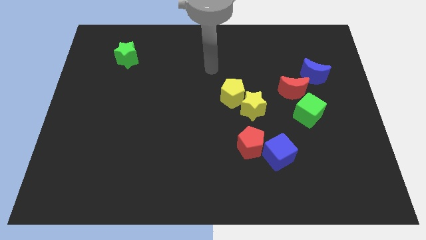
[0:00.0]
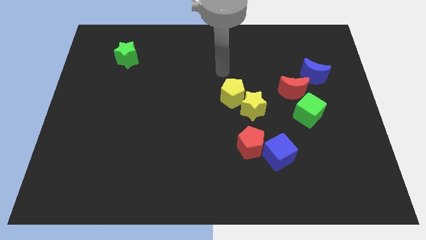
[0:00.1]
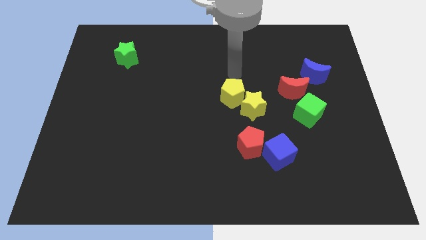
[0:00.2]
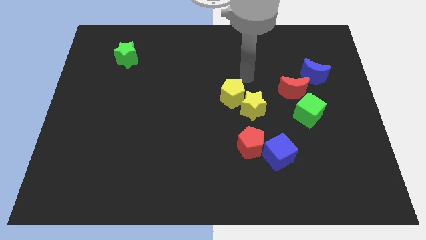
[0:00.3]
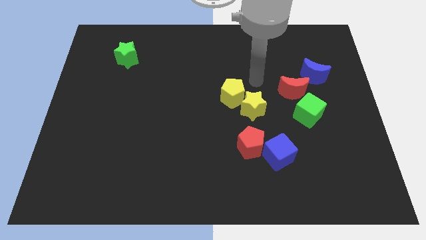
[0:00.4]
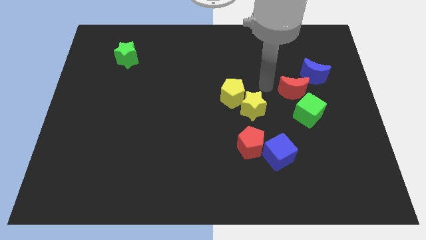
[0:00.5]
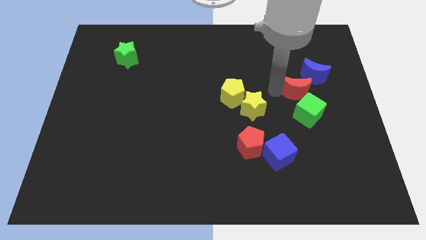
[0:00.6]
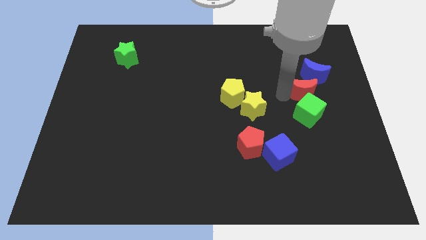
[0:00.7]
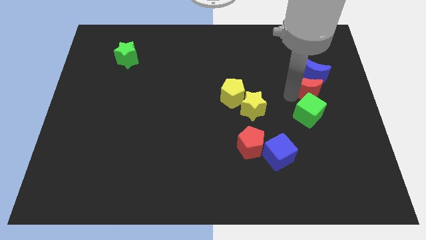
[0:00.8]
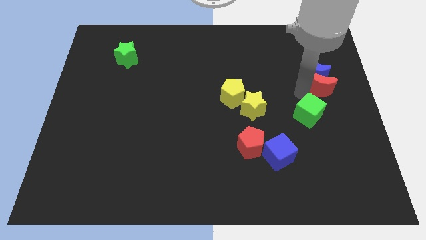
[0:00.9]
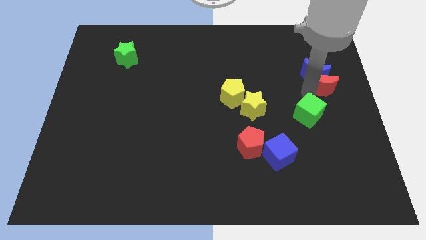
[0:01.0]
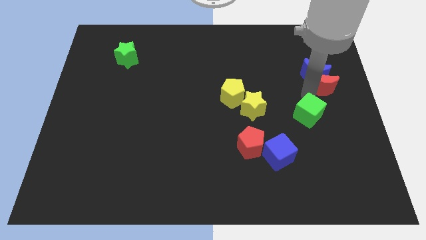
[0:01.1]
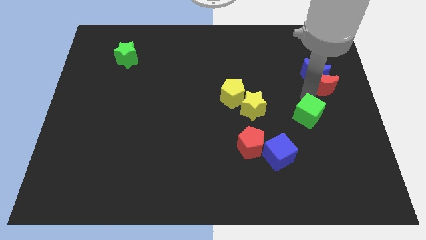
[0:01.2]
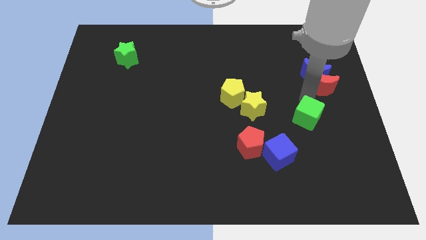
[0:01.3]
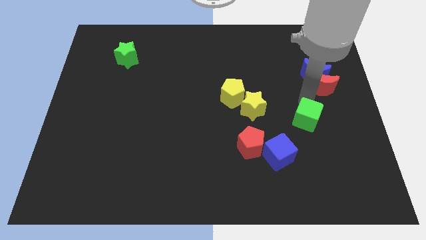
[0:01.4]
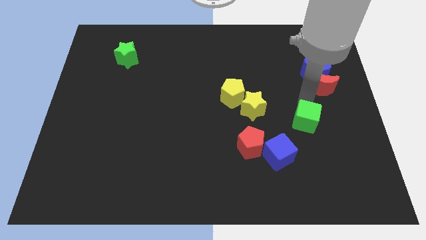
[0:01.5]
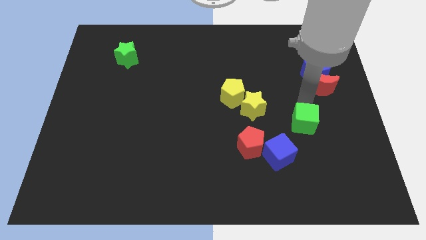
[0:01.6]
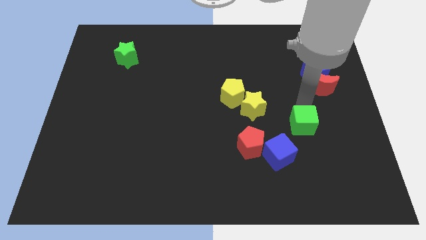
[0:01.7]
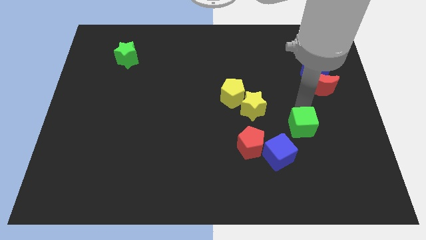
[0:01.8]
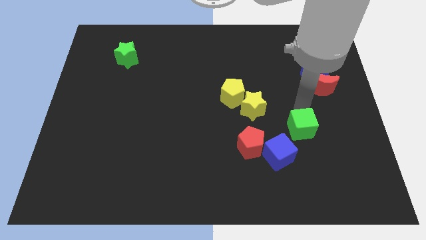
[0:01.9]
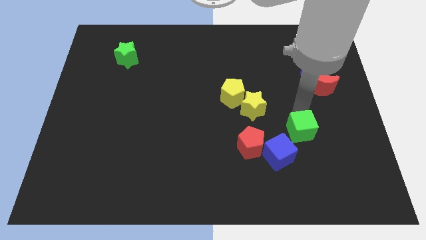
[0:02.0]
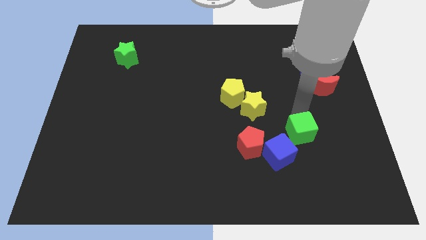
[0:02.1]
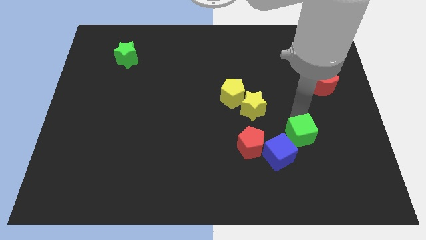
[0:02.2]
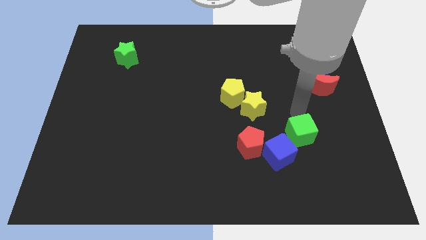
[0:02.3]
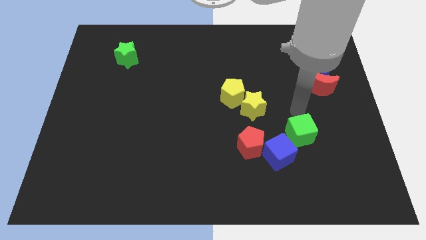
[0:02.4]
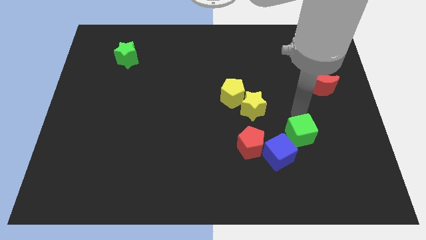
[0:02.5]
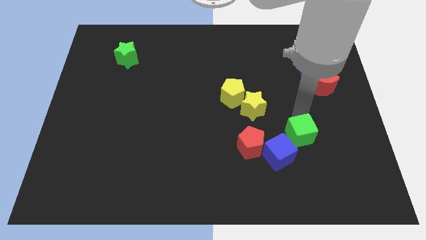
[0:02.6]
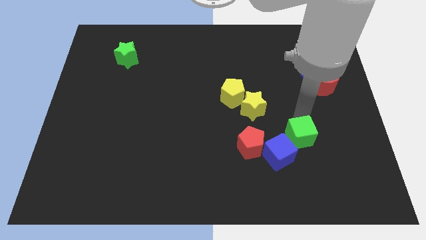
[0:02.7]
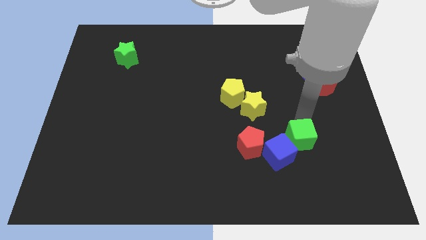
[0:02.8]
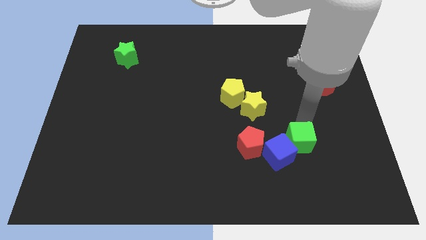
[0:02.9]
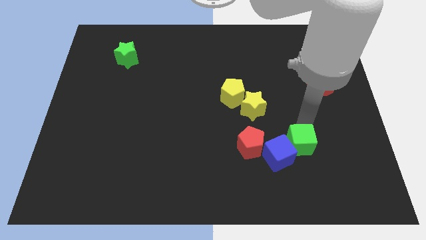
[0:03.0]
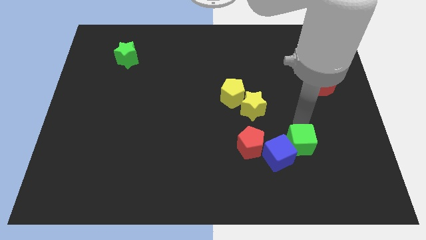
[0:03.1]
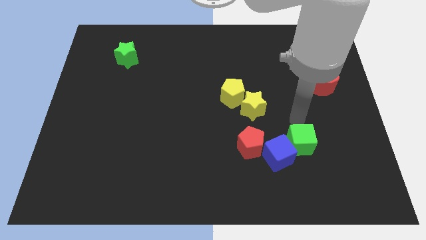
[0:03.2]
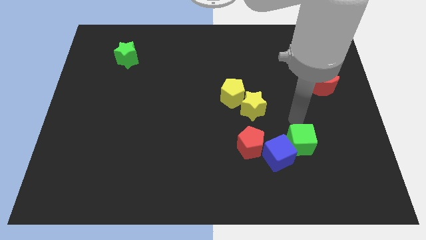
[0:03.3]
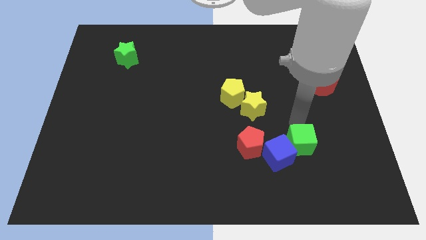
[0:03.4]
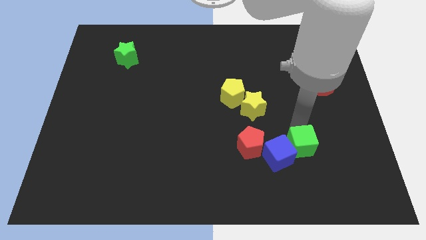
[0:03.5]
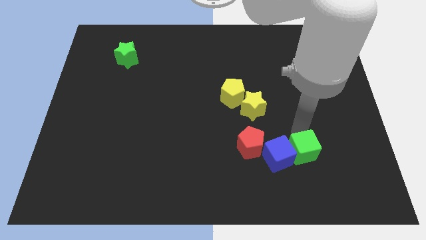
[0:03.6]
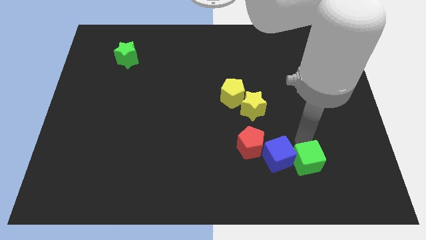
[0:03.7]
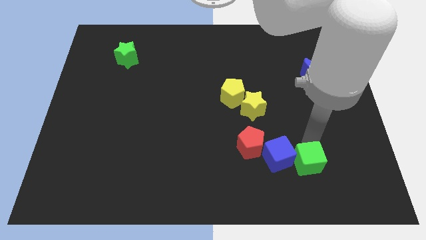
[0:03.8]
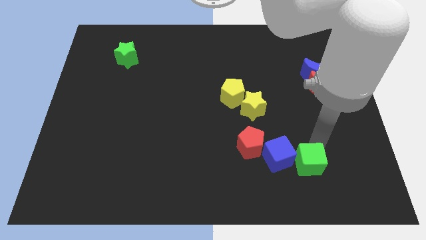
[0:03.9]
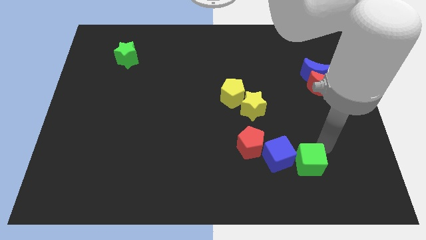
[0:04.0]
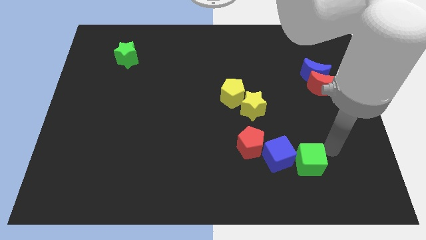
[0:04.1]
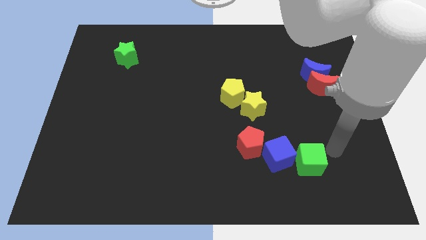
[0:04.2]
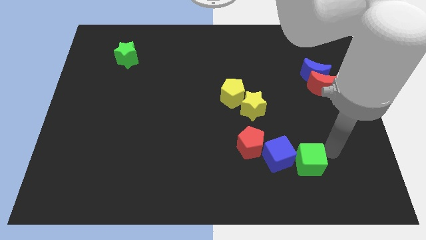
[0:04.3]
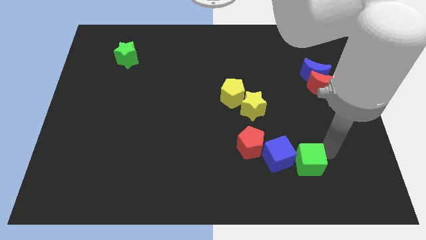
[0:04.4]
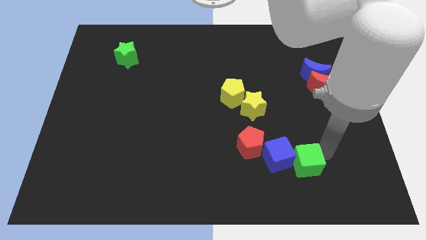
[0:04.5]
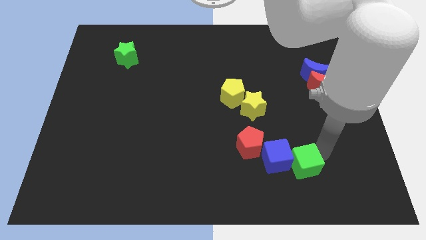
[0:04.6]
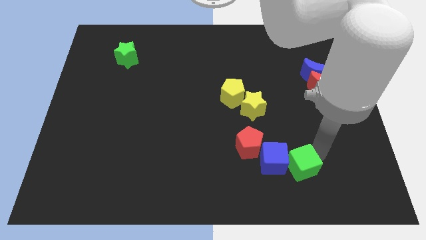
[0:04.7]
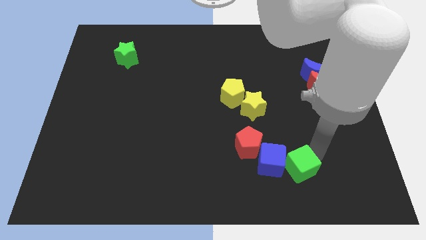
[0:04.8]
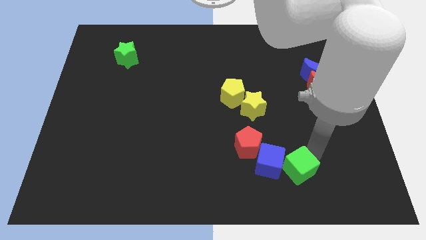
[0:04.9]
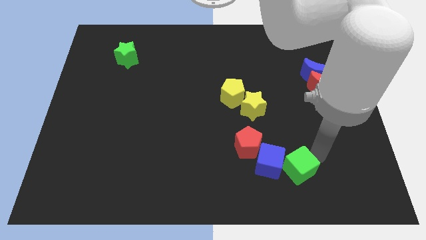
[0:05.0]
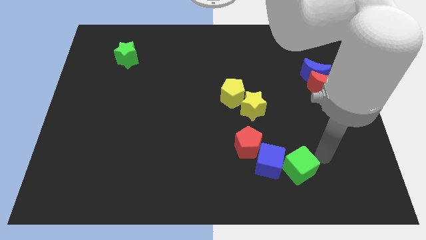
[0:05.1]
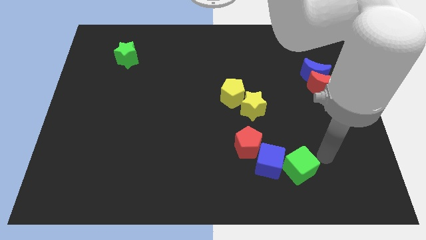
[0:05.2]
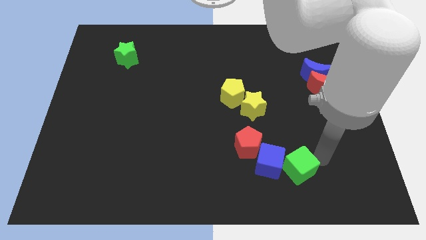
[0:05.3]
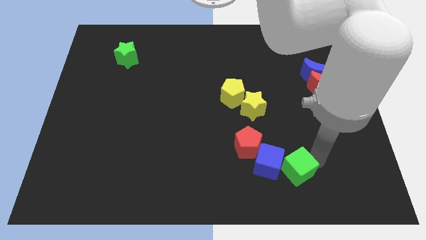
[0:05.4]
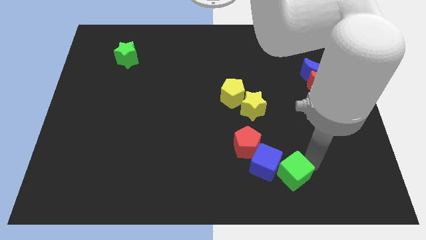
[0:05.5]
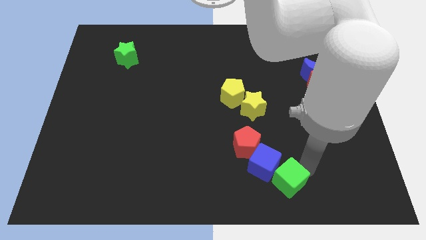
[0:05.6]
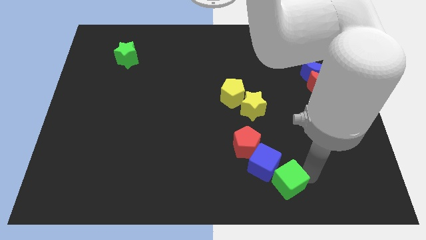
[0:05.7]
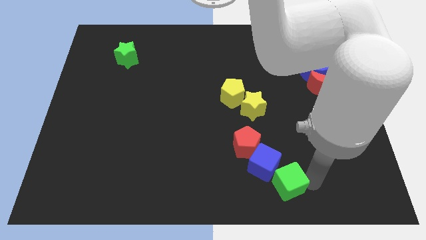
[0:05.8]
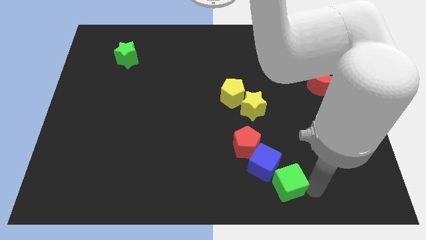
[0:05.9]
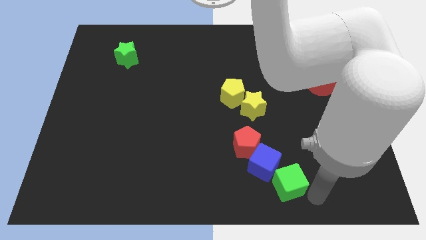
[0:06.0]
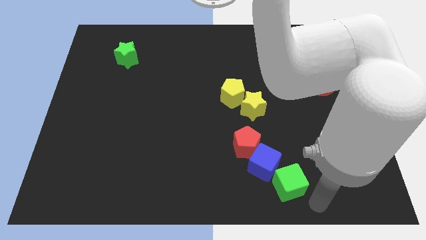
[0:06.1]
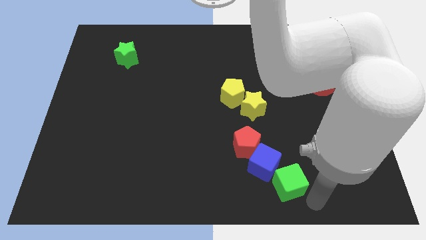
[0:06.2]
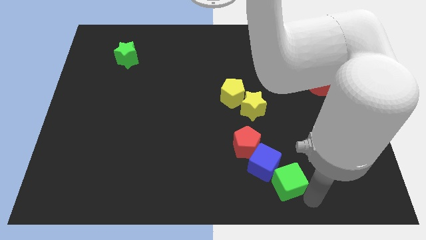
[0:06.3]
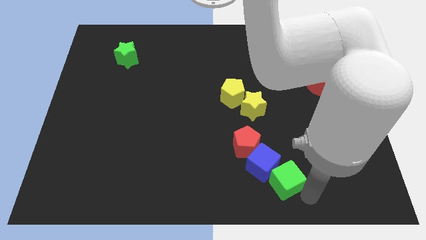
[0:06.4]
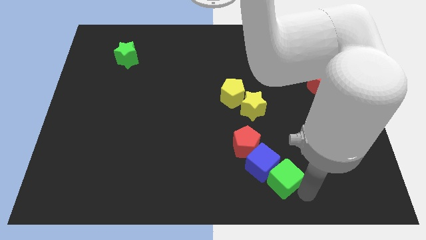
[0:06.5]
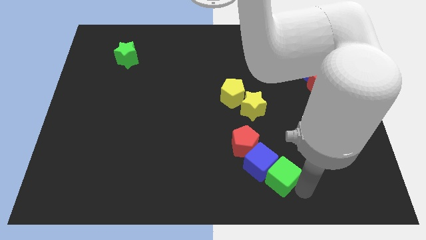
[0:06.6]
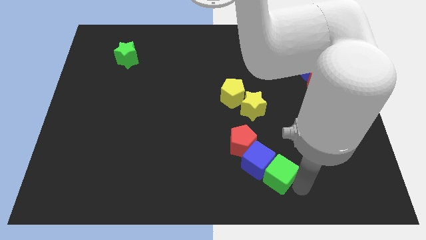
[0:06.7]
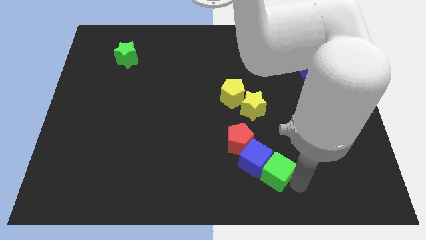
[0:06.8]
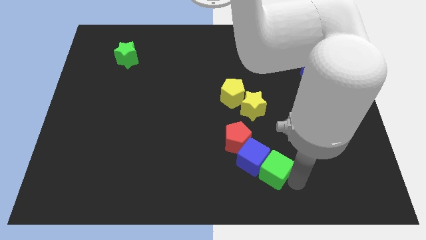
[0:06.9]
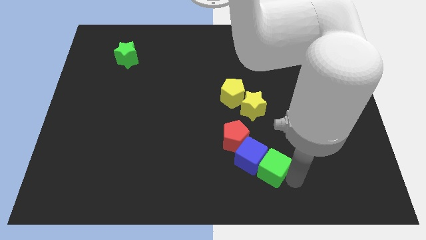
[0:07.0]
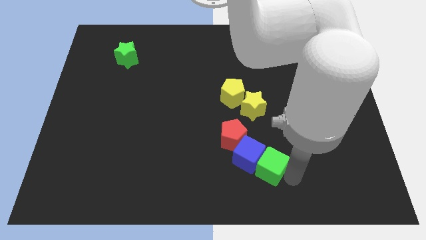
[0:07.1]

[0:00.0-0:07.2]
put the green cube below the yellow star
